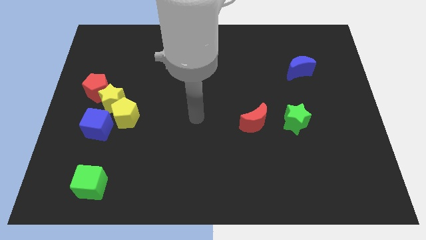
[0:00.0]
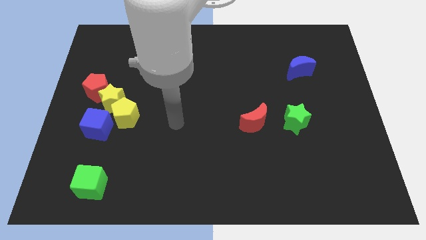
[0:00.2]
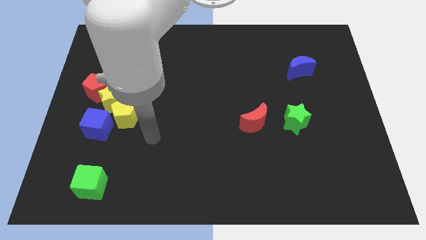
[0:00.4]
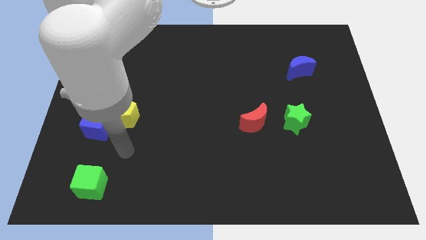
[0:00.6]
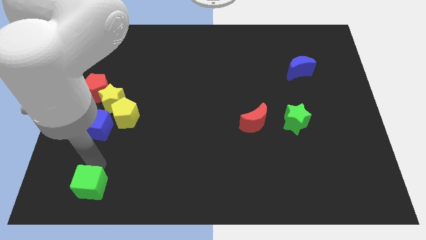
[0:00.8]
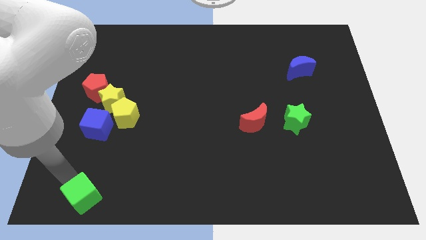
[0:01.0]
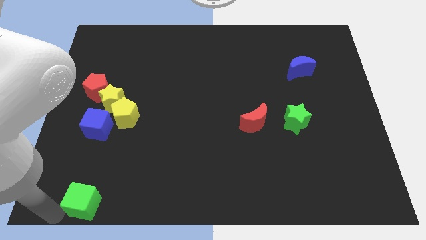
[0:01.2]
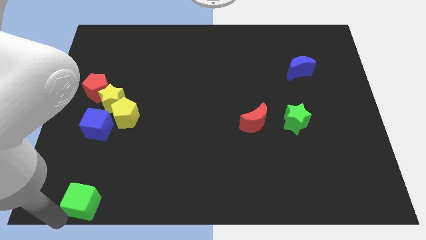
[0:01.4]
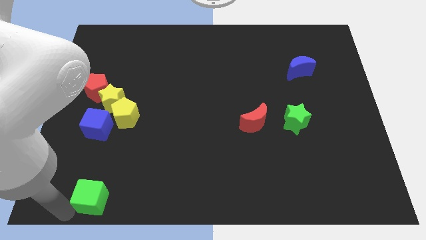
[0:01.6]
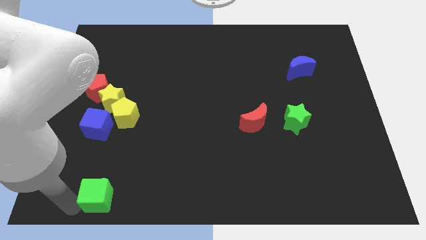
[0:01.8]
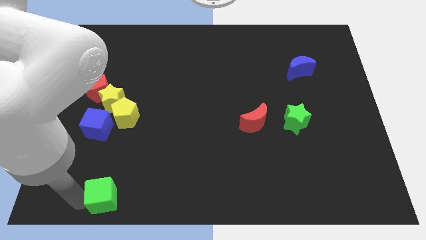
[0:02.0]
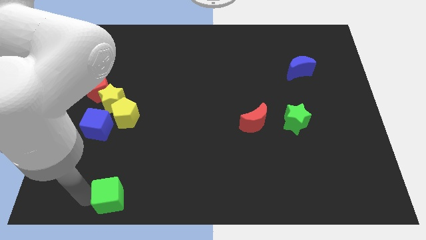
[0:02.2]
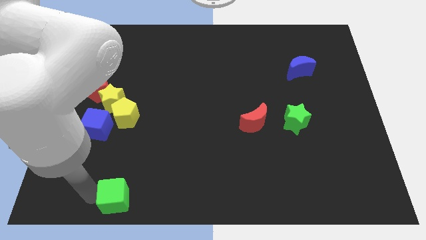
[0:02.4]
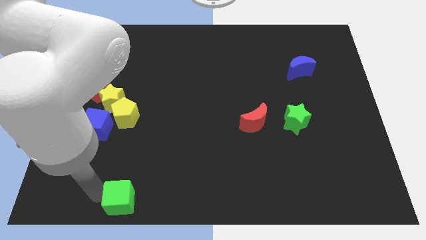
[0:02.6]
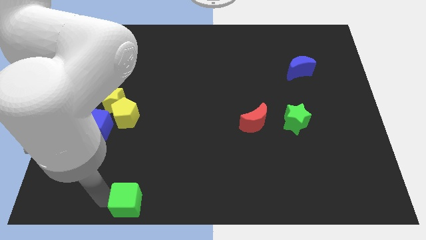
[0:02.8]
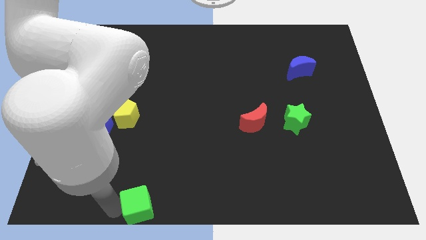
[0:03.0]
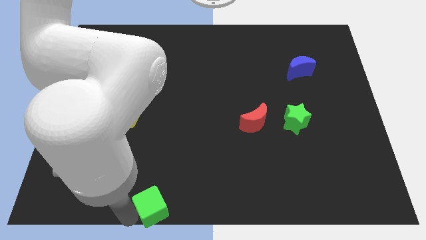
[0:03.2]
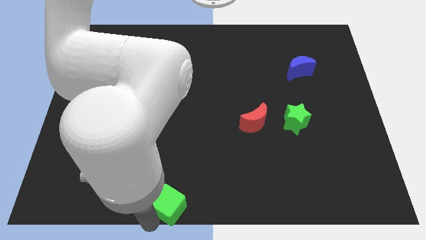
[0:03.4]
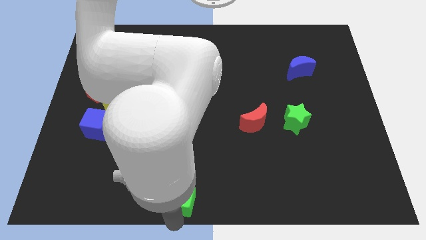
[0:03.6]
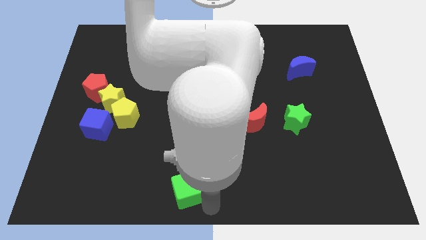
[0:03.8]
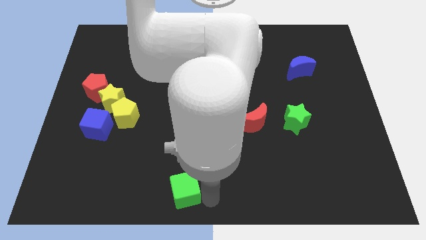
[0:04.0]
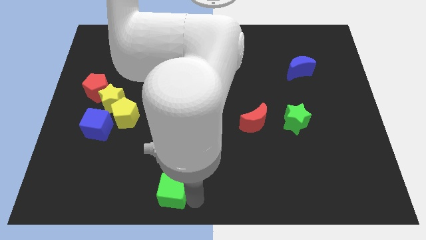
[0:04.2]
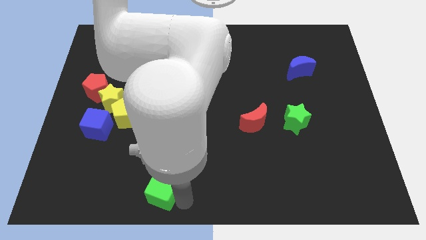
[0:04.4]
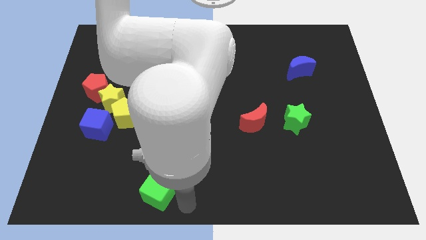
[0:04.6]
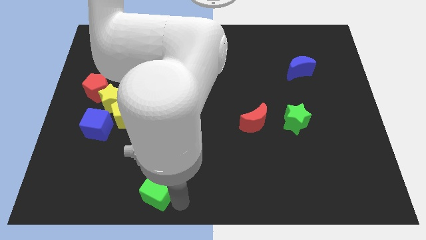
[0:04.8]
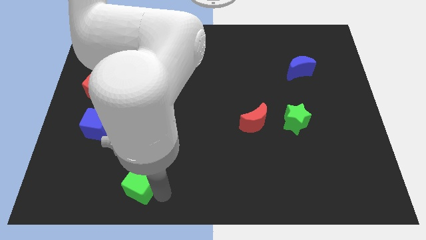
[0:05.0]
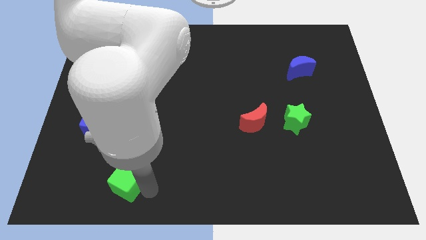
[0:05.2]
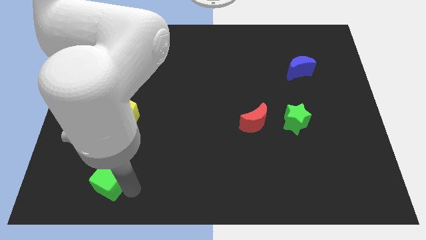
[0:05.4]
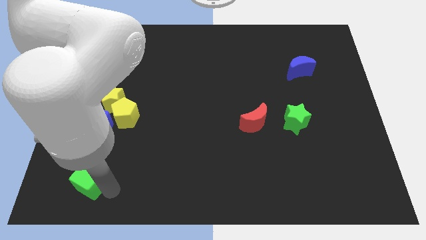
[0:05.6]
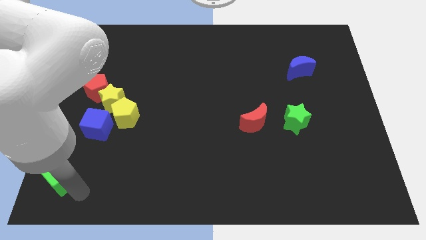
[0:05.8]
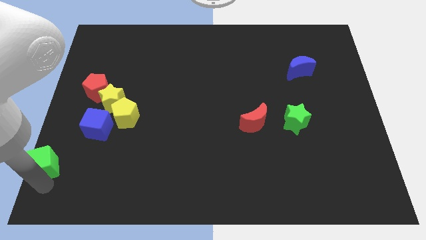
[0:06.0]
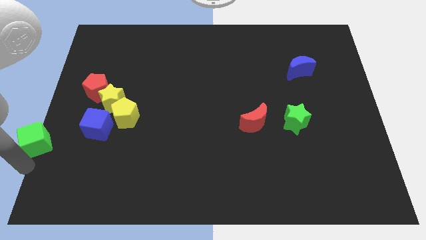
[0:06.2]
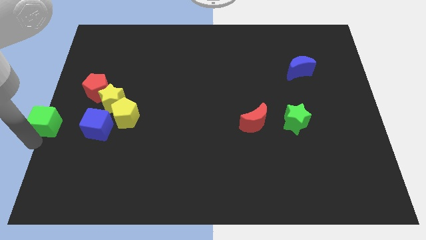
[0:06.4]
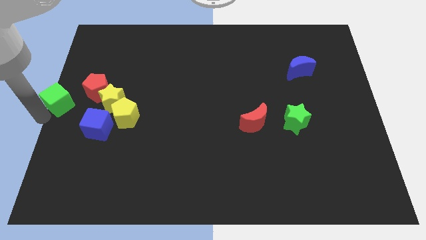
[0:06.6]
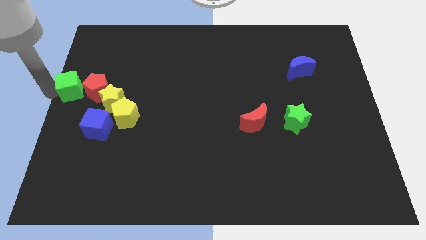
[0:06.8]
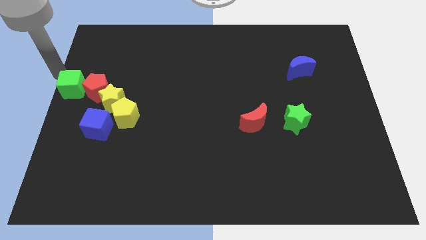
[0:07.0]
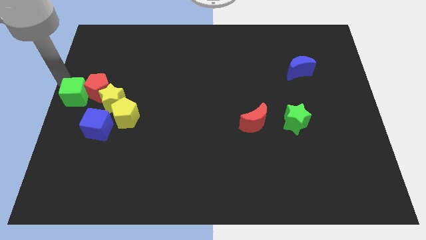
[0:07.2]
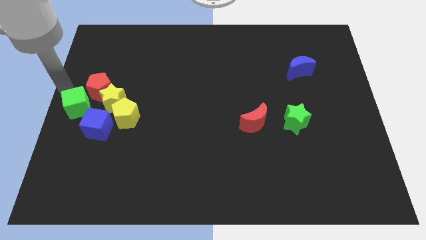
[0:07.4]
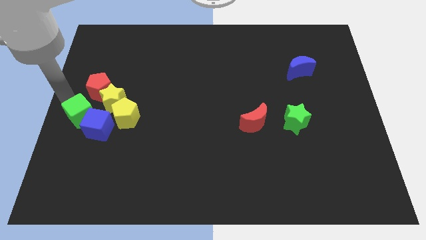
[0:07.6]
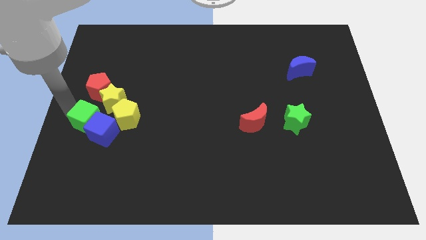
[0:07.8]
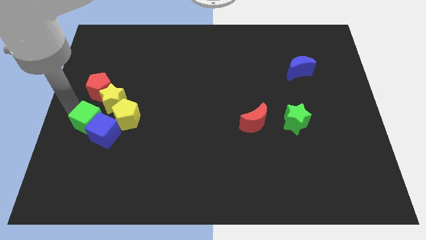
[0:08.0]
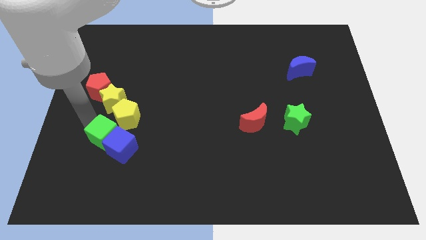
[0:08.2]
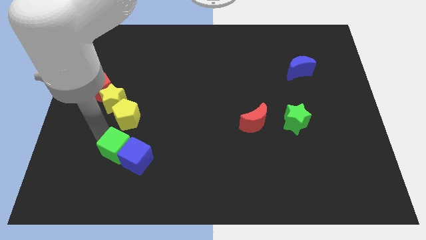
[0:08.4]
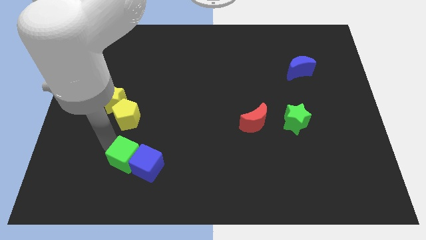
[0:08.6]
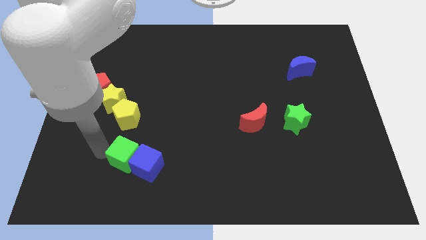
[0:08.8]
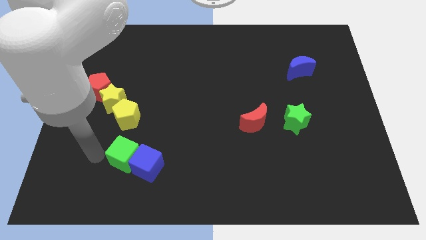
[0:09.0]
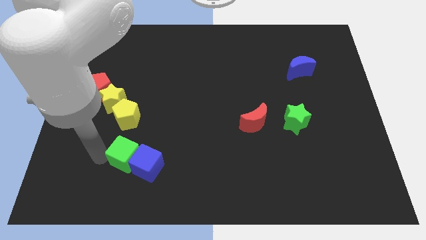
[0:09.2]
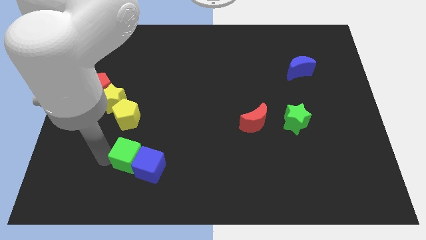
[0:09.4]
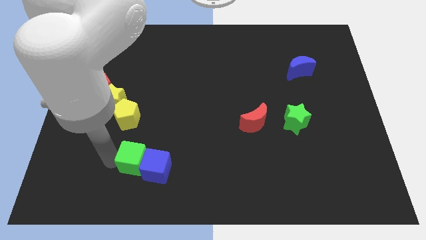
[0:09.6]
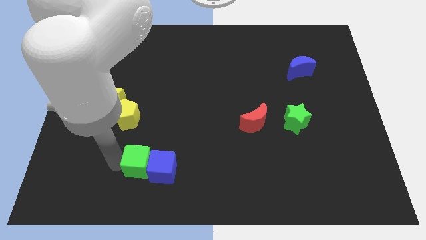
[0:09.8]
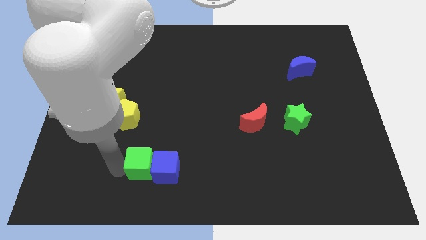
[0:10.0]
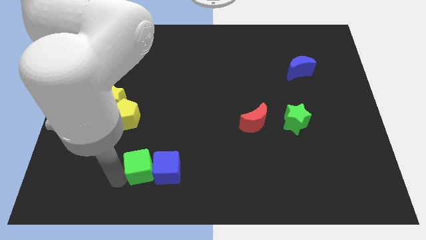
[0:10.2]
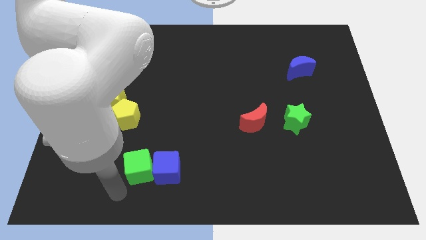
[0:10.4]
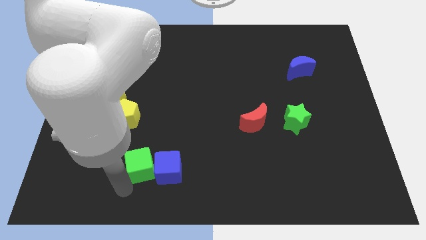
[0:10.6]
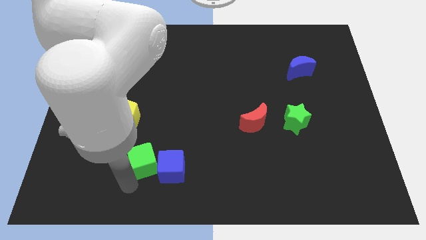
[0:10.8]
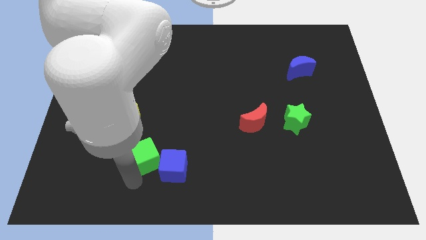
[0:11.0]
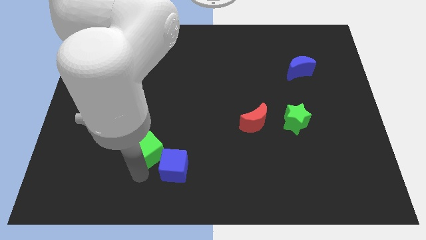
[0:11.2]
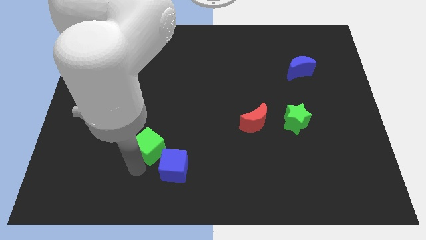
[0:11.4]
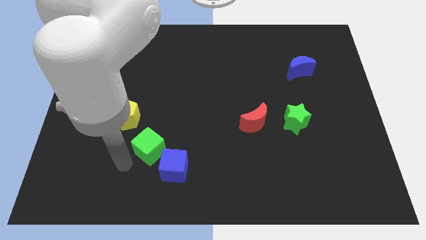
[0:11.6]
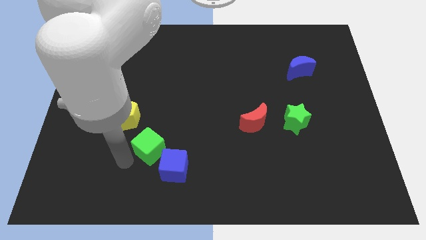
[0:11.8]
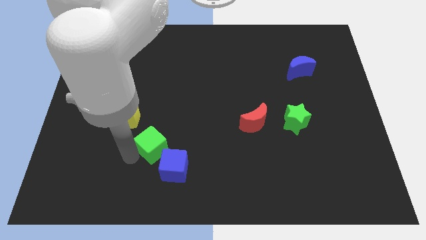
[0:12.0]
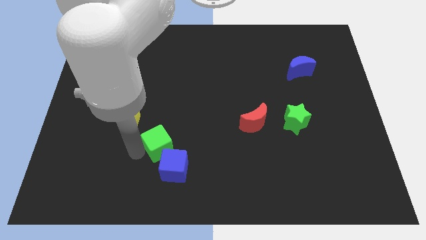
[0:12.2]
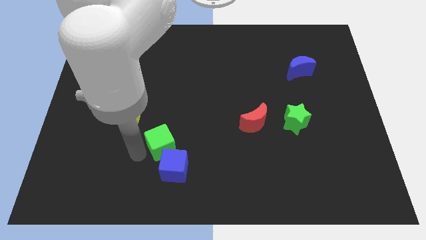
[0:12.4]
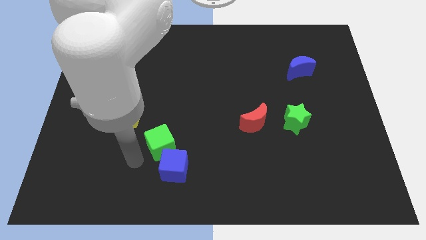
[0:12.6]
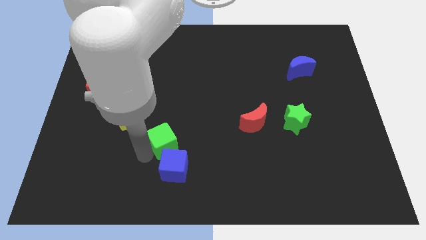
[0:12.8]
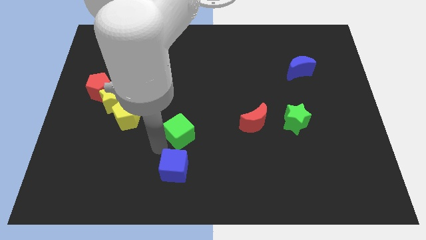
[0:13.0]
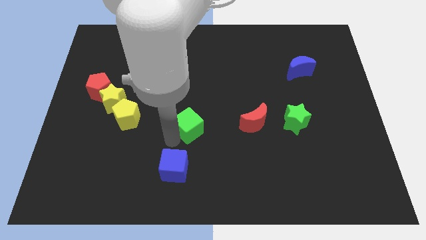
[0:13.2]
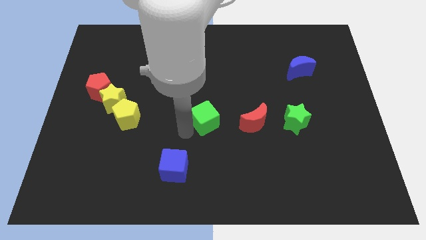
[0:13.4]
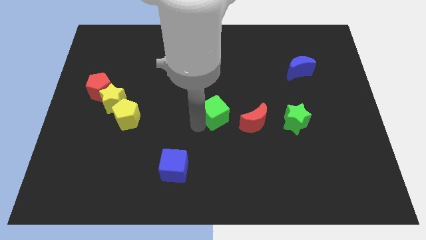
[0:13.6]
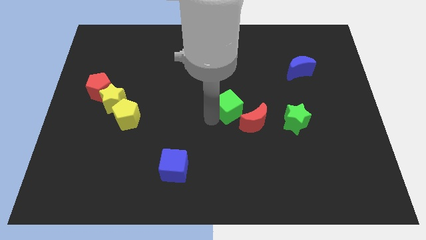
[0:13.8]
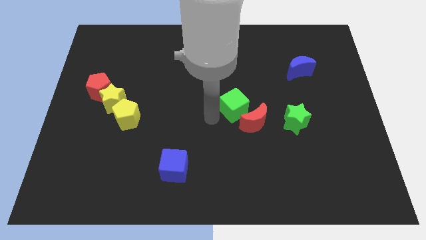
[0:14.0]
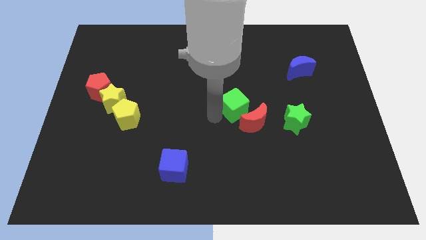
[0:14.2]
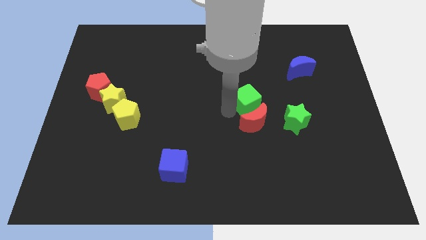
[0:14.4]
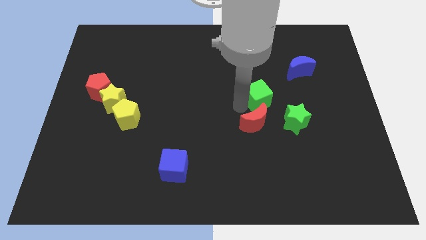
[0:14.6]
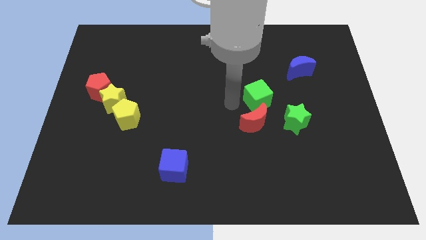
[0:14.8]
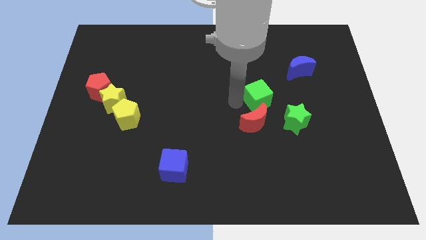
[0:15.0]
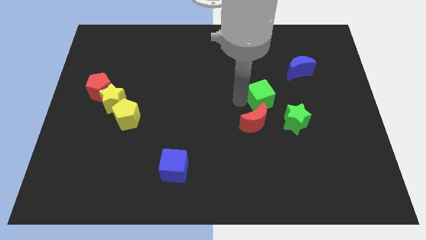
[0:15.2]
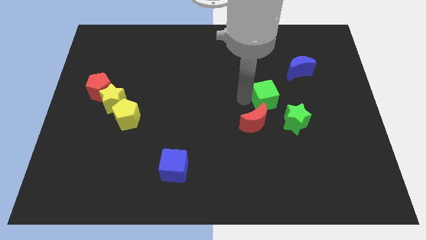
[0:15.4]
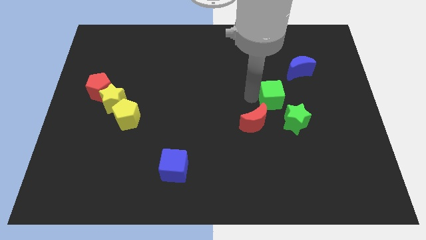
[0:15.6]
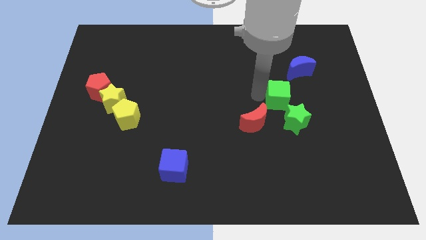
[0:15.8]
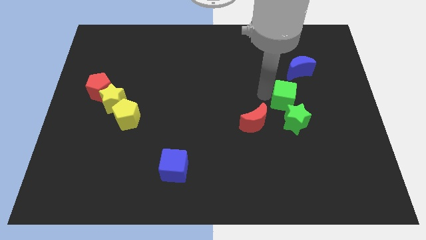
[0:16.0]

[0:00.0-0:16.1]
put the green cube to the bottom of the blue moon
